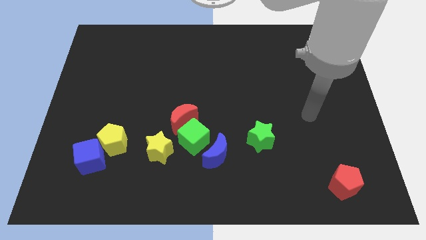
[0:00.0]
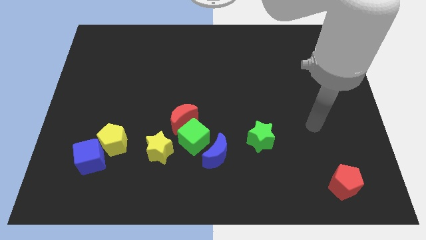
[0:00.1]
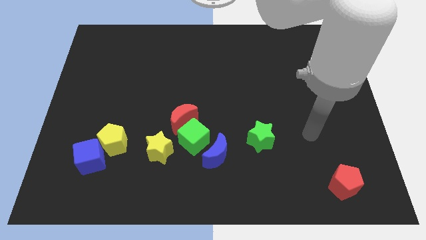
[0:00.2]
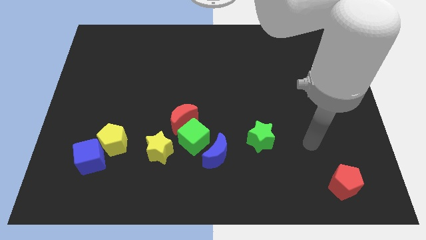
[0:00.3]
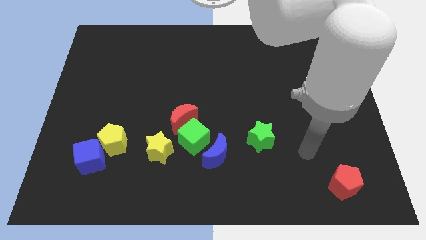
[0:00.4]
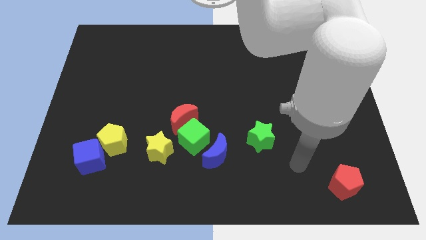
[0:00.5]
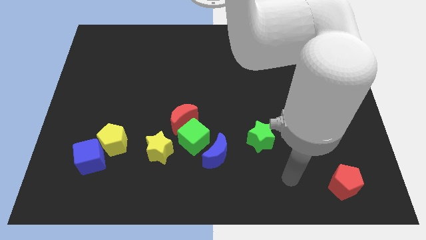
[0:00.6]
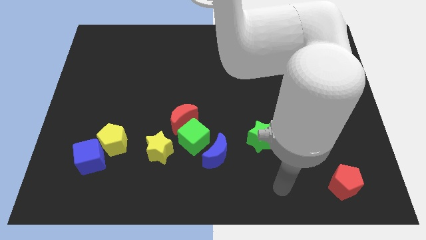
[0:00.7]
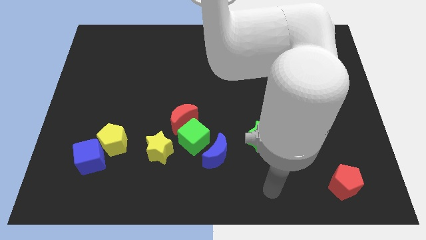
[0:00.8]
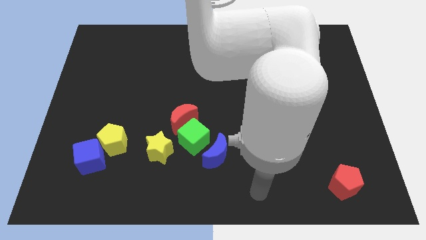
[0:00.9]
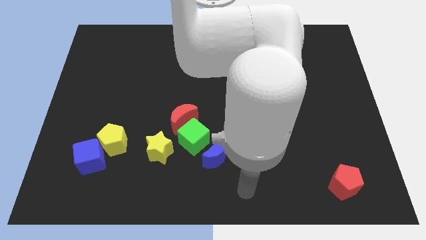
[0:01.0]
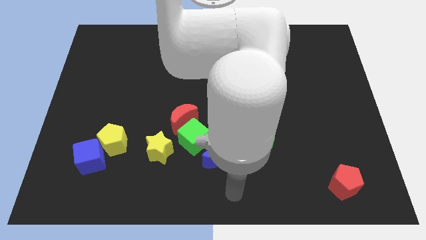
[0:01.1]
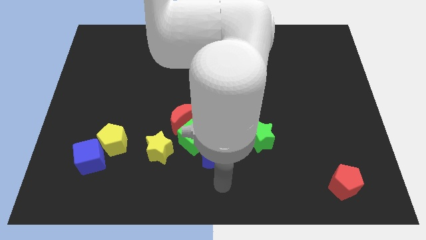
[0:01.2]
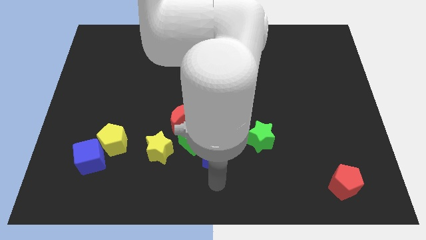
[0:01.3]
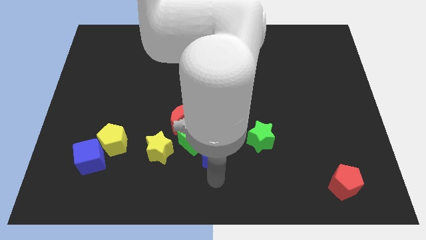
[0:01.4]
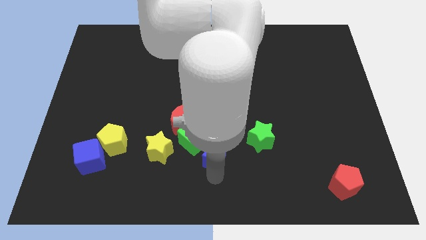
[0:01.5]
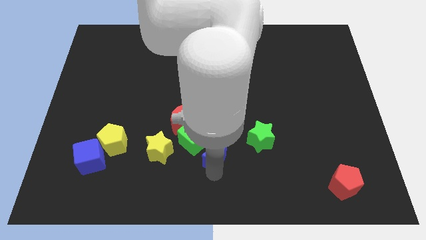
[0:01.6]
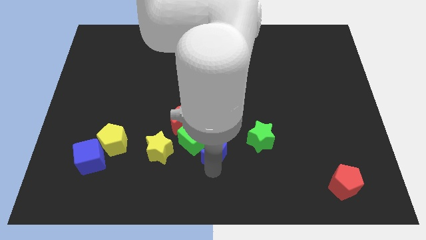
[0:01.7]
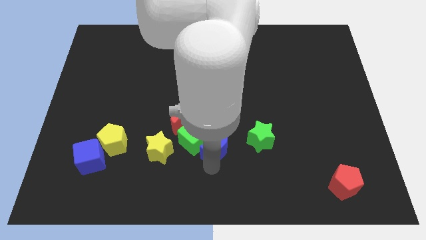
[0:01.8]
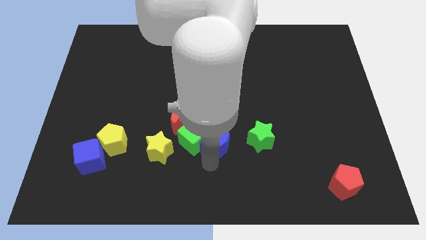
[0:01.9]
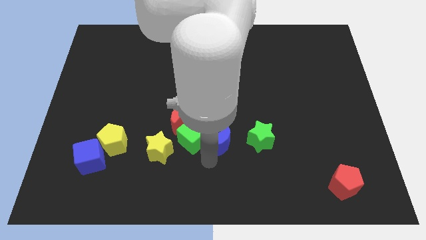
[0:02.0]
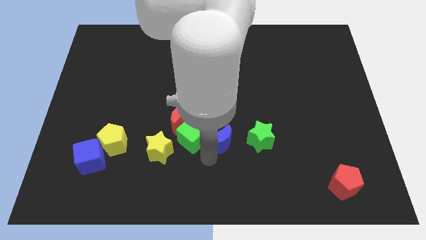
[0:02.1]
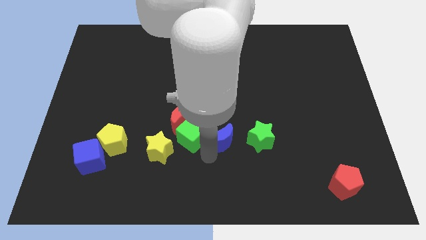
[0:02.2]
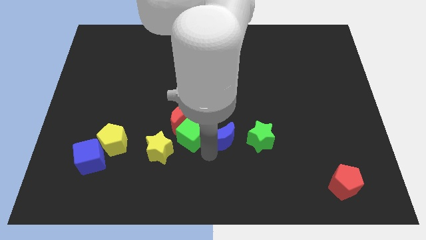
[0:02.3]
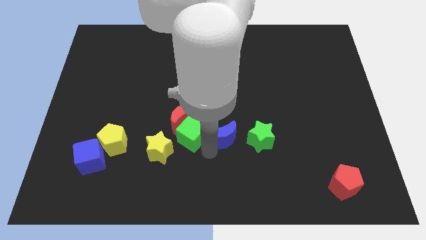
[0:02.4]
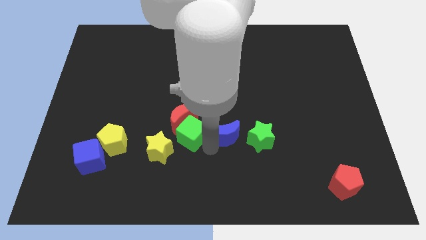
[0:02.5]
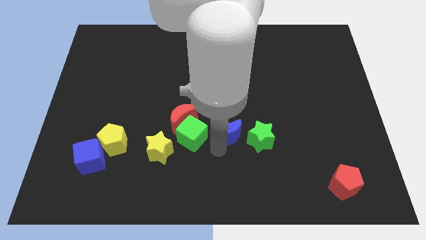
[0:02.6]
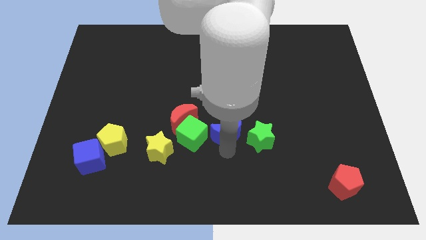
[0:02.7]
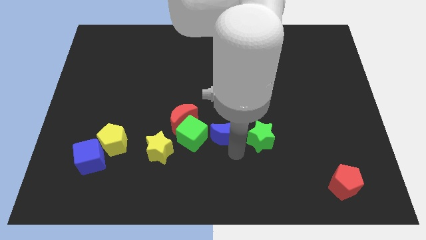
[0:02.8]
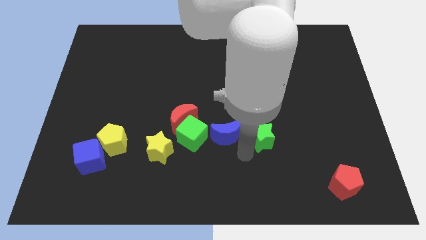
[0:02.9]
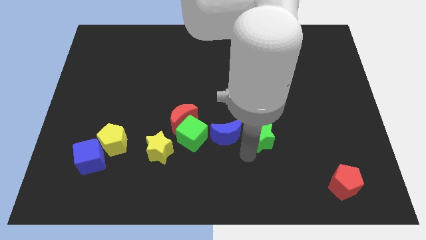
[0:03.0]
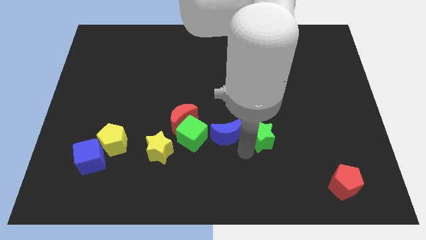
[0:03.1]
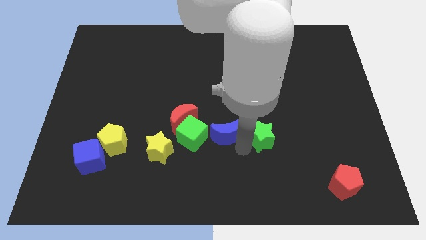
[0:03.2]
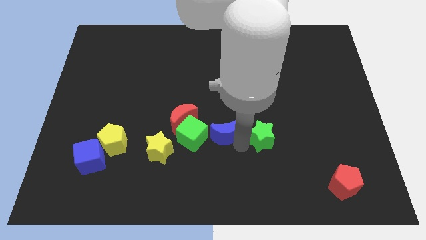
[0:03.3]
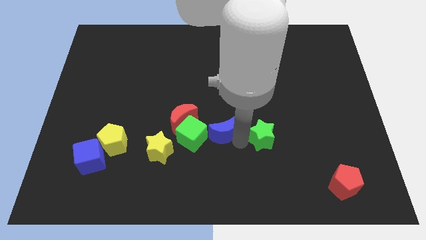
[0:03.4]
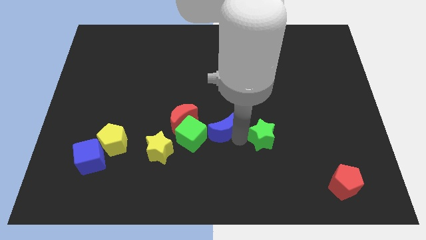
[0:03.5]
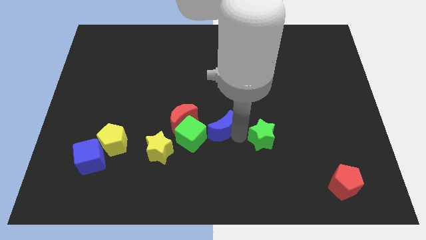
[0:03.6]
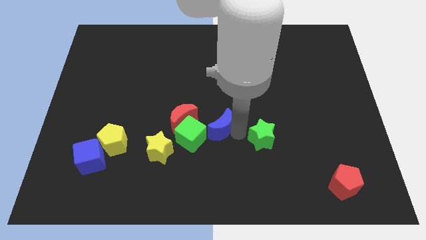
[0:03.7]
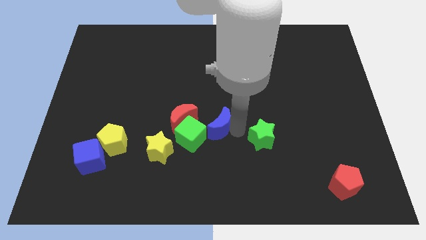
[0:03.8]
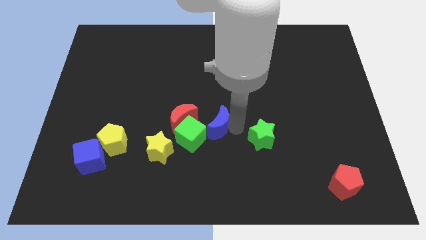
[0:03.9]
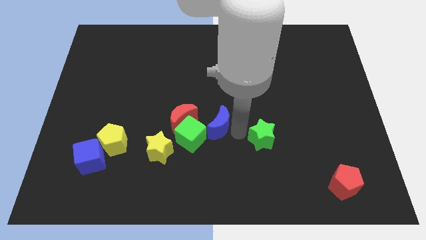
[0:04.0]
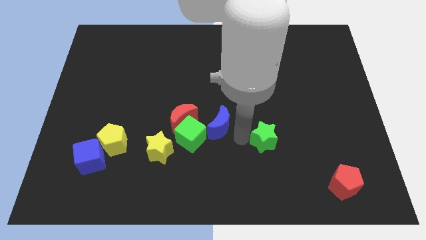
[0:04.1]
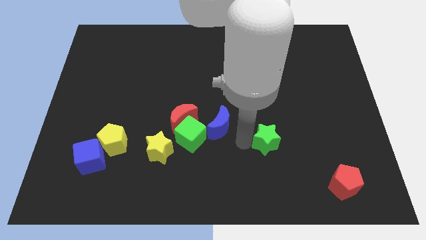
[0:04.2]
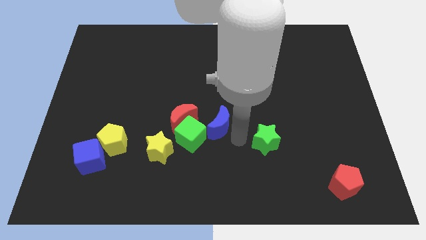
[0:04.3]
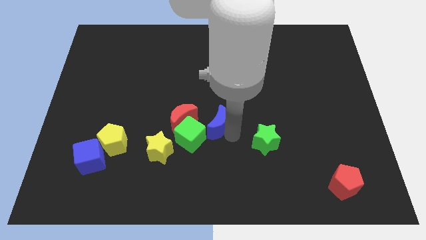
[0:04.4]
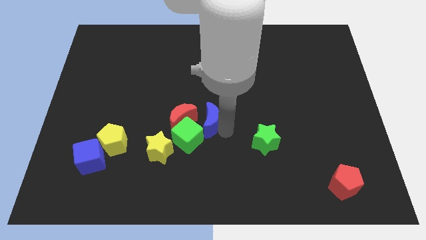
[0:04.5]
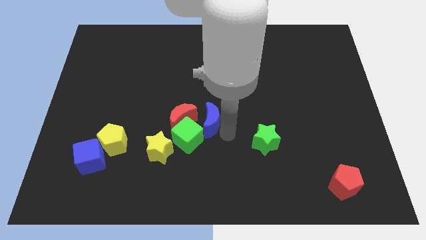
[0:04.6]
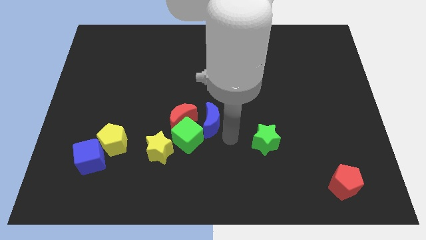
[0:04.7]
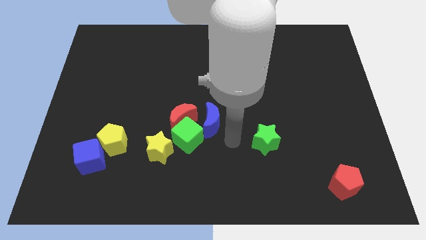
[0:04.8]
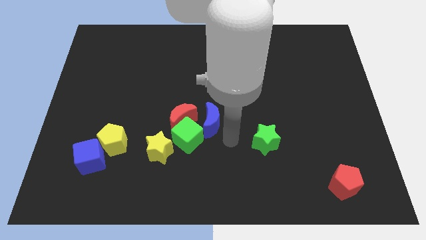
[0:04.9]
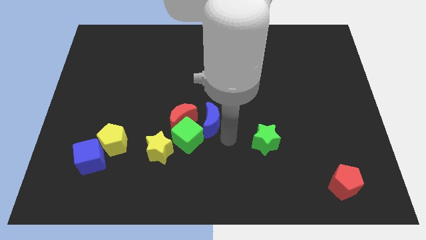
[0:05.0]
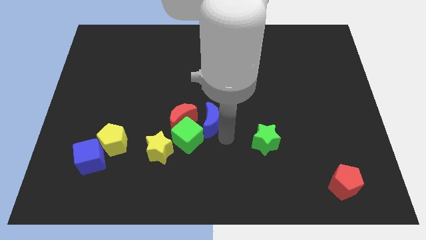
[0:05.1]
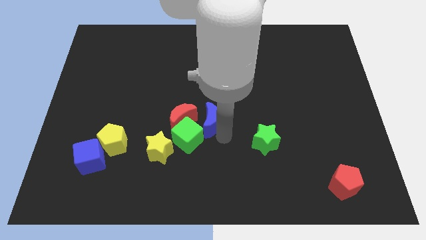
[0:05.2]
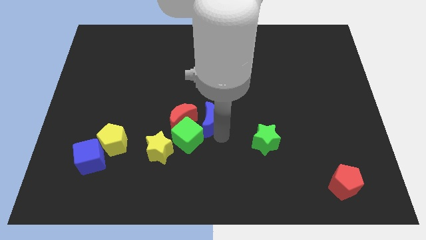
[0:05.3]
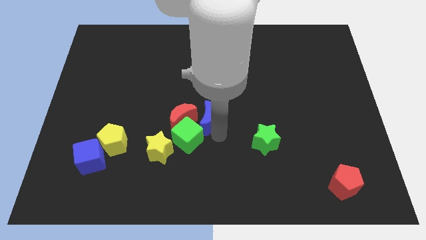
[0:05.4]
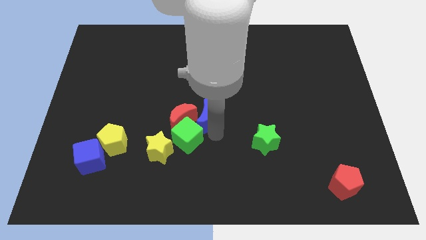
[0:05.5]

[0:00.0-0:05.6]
move the blue moon a little diagonally up and to the left

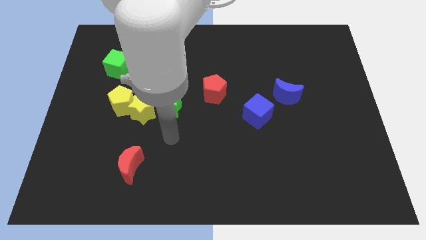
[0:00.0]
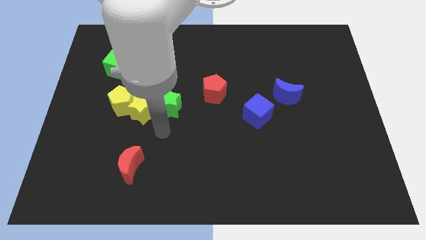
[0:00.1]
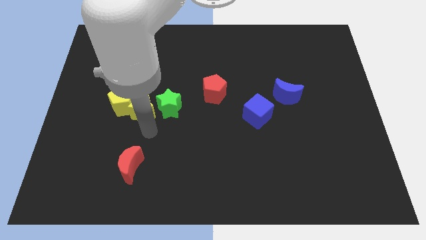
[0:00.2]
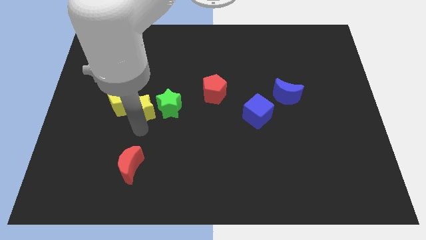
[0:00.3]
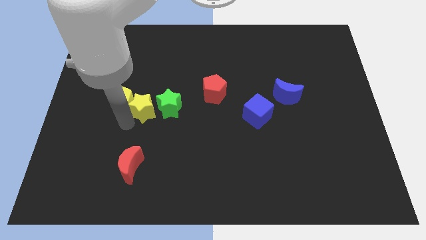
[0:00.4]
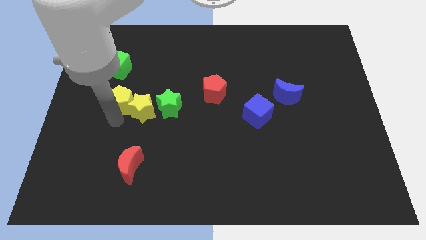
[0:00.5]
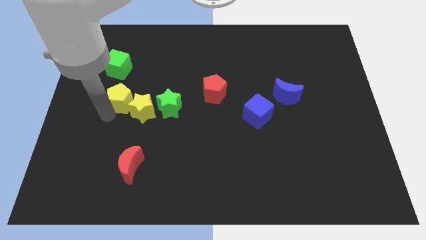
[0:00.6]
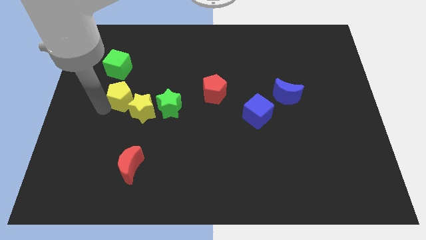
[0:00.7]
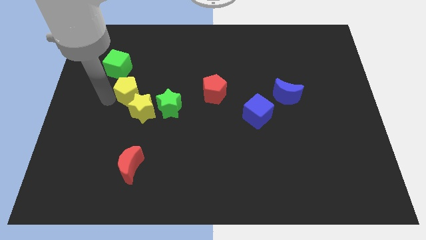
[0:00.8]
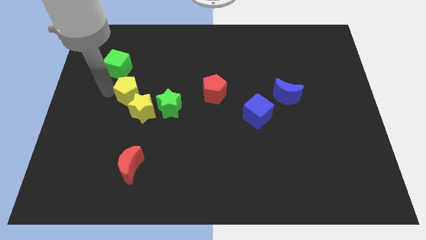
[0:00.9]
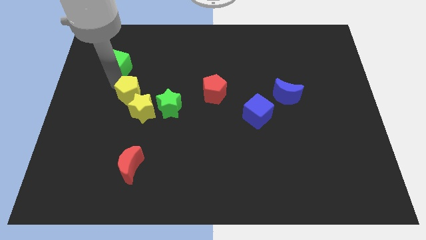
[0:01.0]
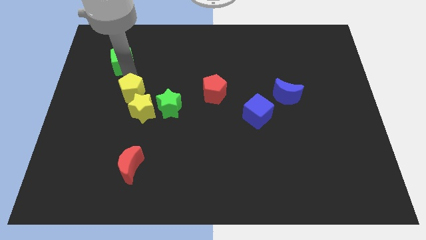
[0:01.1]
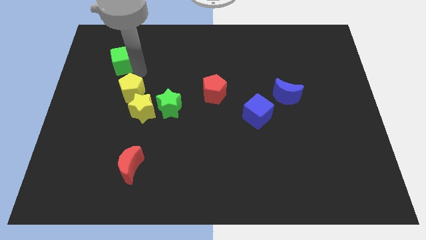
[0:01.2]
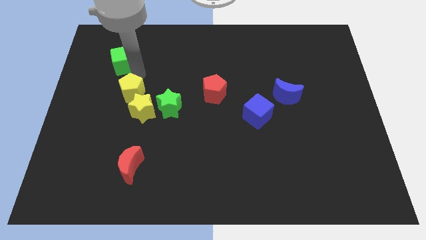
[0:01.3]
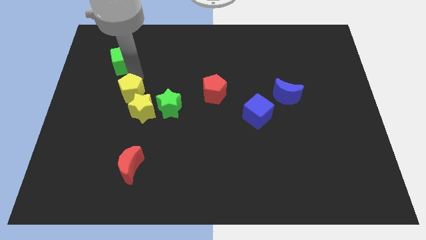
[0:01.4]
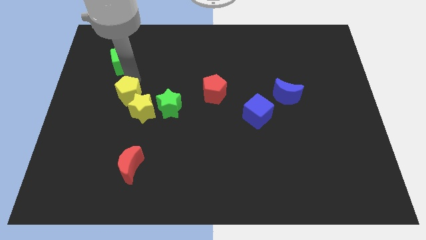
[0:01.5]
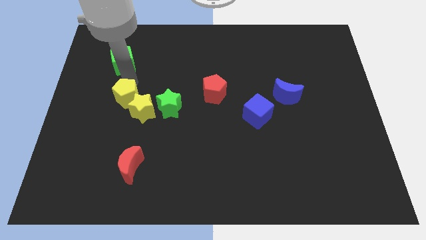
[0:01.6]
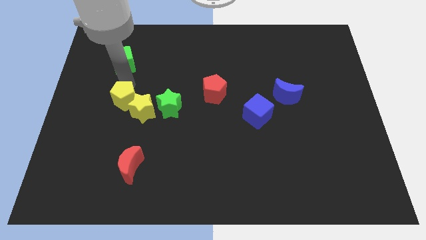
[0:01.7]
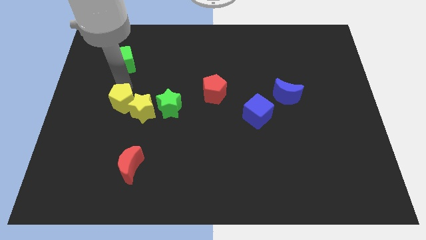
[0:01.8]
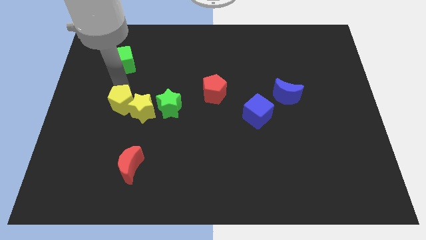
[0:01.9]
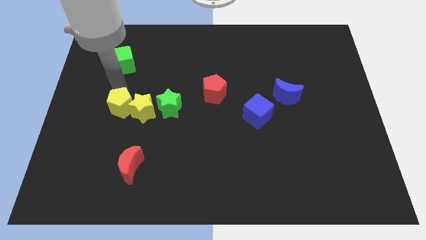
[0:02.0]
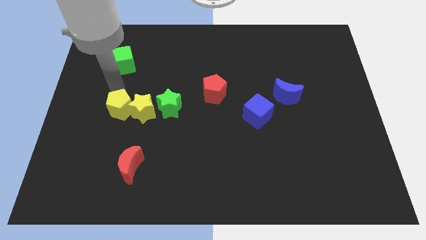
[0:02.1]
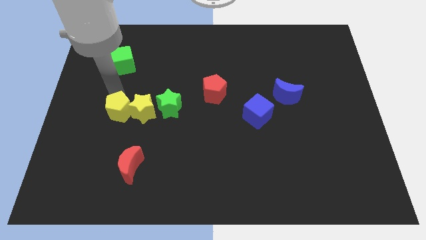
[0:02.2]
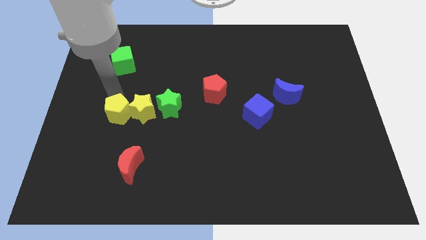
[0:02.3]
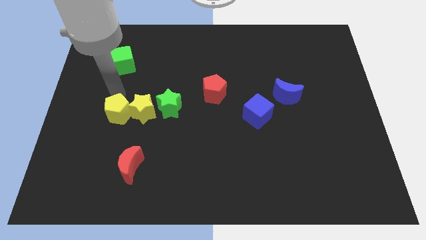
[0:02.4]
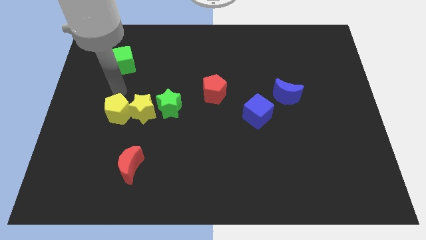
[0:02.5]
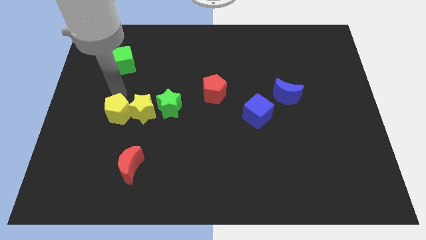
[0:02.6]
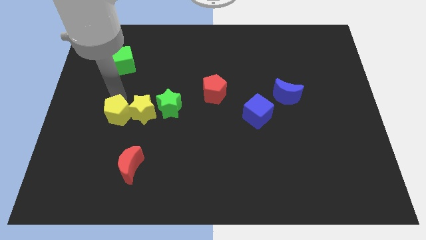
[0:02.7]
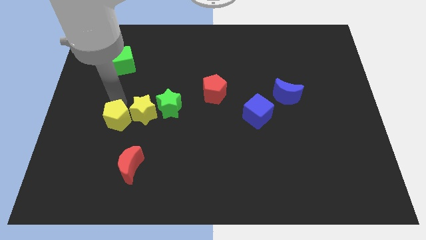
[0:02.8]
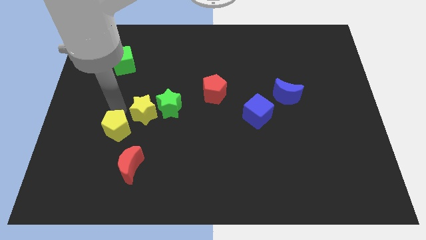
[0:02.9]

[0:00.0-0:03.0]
slightly push the yellow pentagon down
